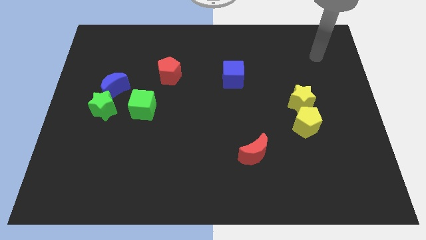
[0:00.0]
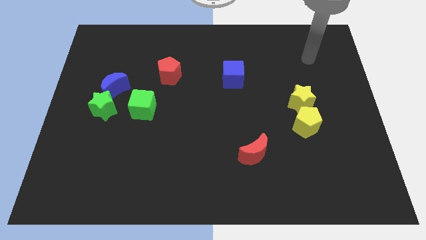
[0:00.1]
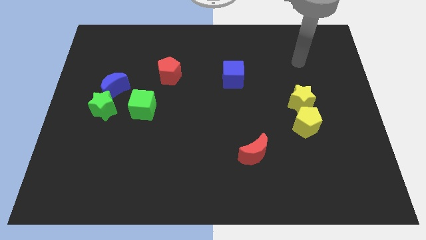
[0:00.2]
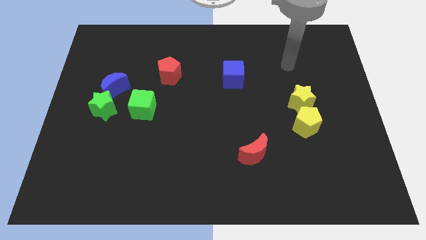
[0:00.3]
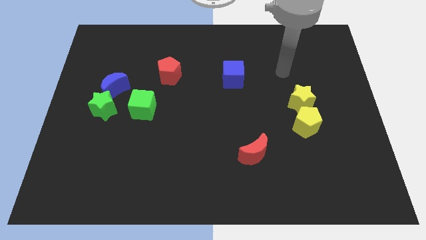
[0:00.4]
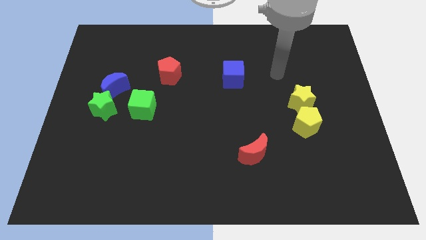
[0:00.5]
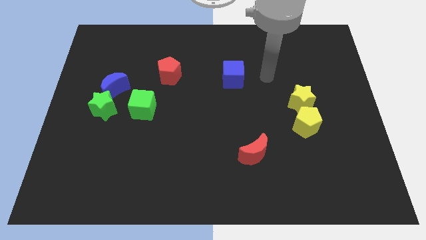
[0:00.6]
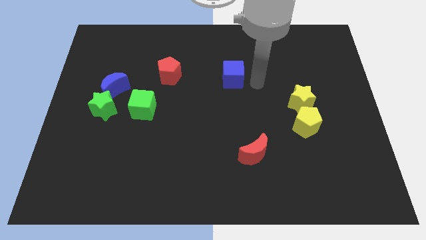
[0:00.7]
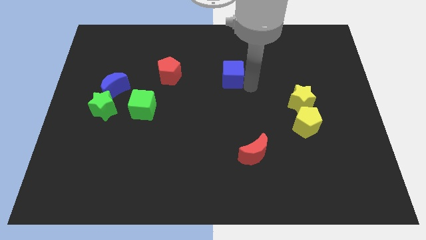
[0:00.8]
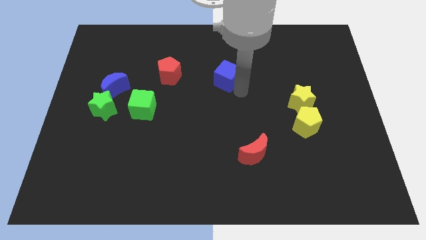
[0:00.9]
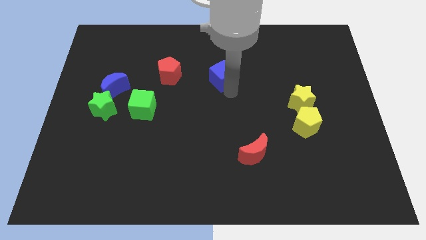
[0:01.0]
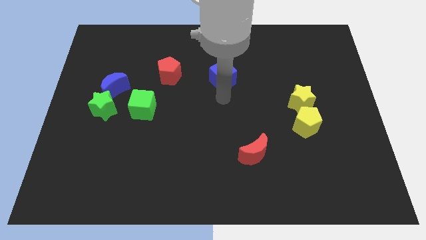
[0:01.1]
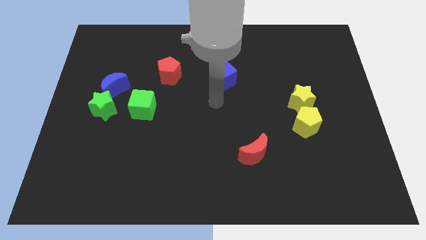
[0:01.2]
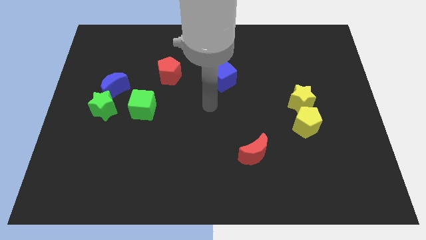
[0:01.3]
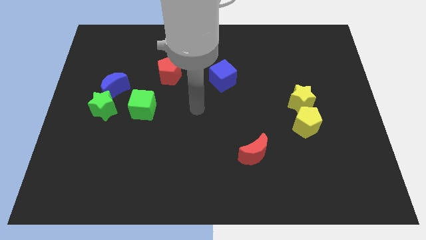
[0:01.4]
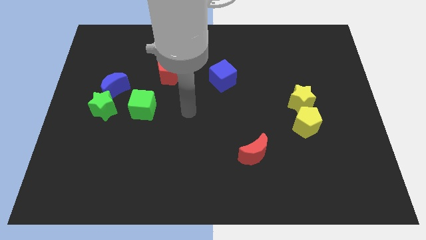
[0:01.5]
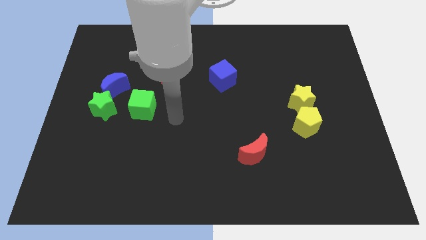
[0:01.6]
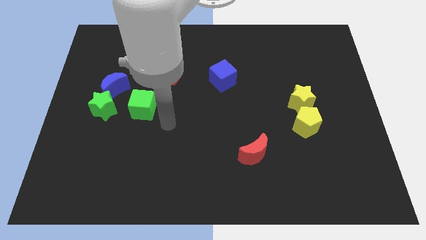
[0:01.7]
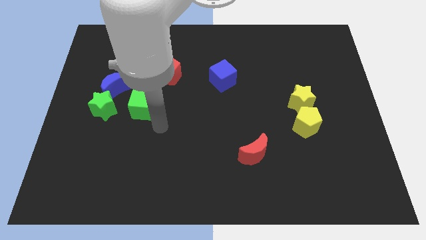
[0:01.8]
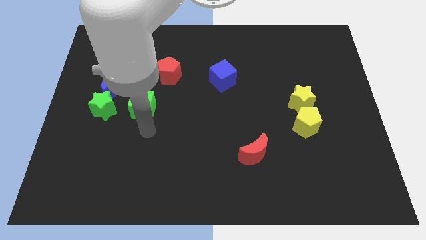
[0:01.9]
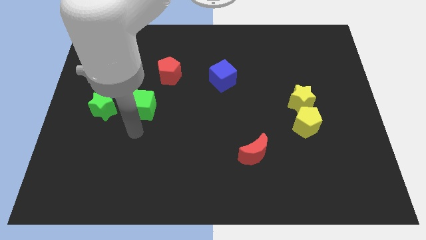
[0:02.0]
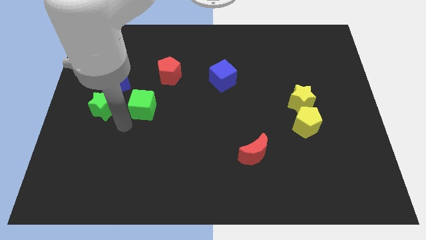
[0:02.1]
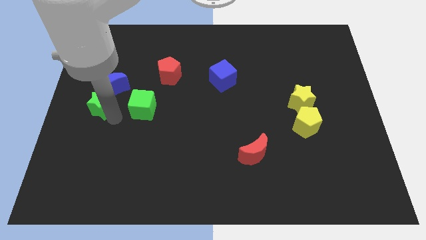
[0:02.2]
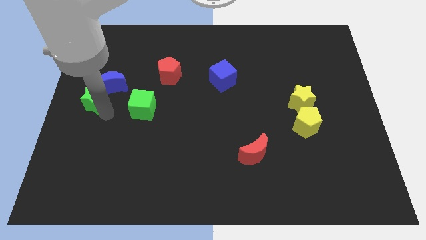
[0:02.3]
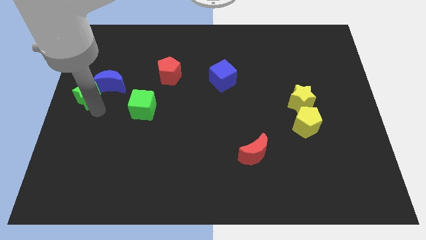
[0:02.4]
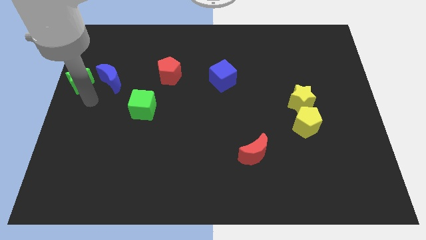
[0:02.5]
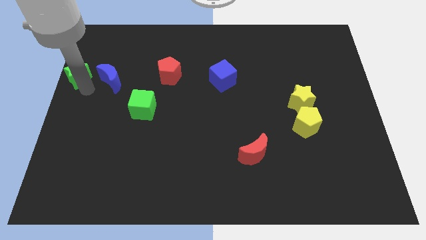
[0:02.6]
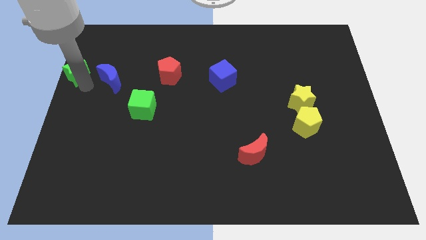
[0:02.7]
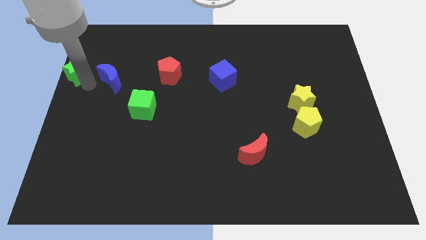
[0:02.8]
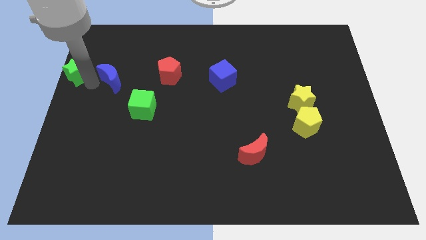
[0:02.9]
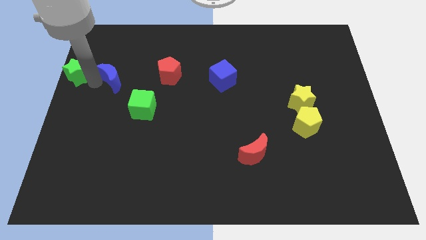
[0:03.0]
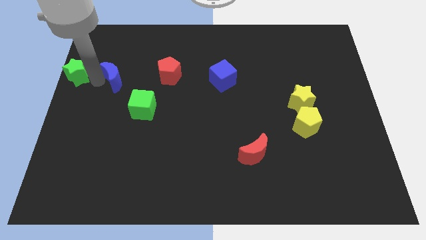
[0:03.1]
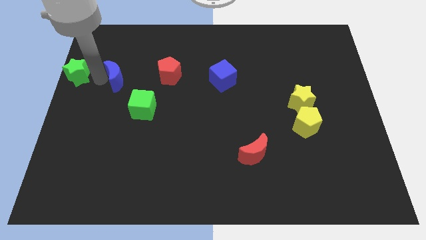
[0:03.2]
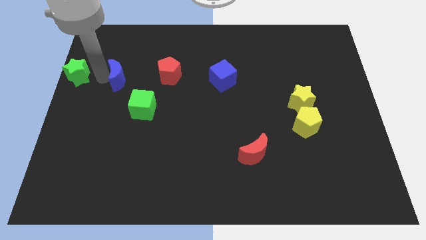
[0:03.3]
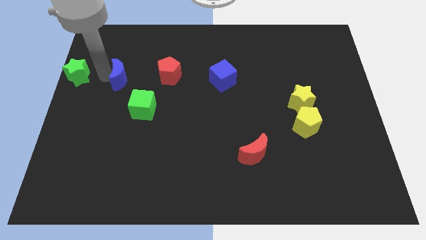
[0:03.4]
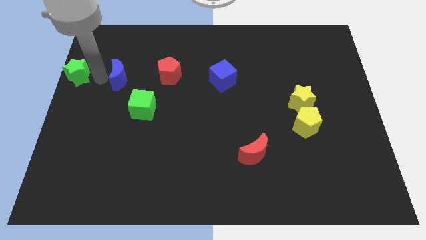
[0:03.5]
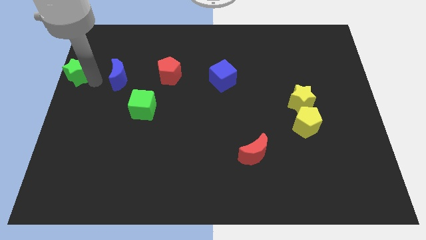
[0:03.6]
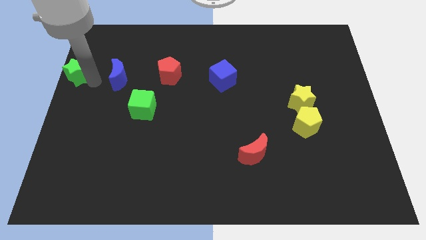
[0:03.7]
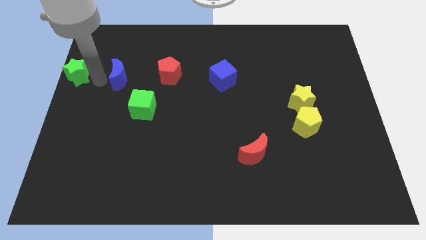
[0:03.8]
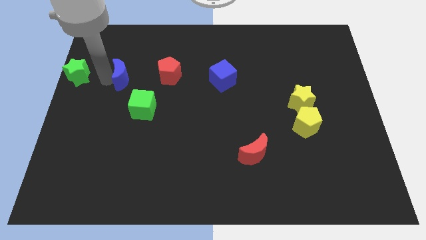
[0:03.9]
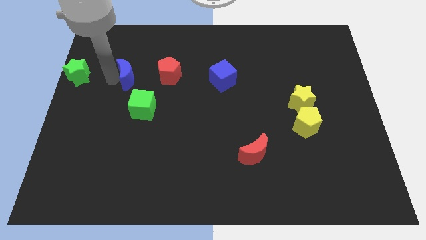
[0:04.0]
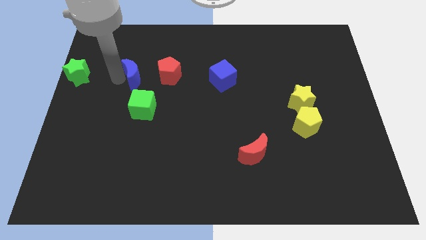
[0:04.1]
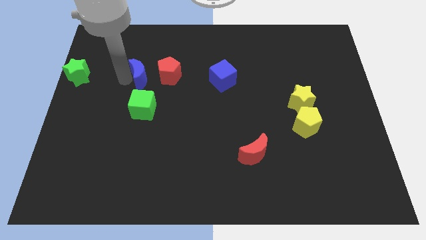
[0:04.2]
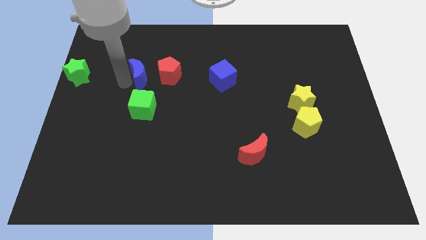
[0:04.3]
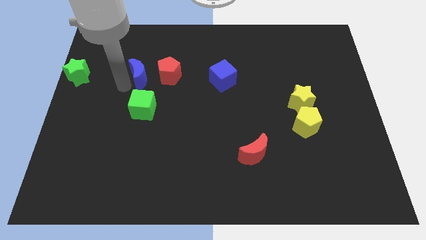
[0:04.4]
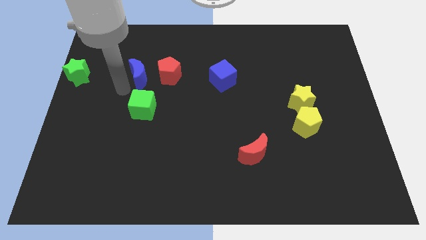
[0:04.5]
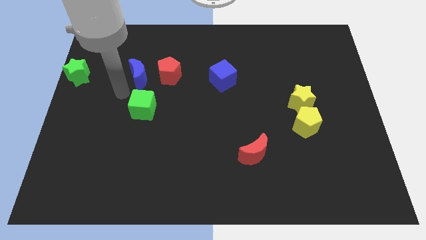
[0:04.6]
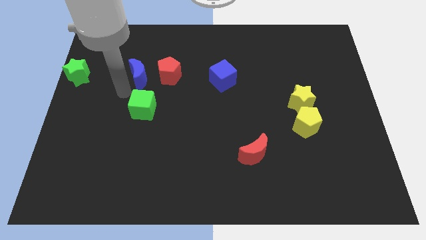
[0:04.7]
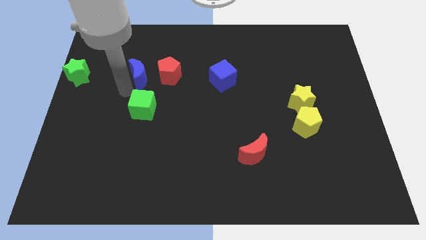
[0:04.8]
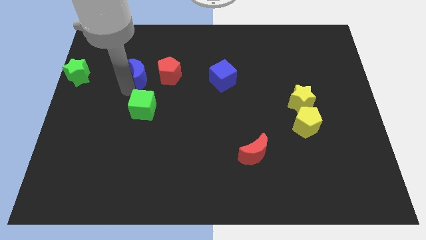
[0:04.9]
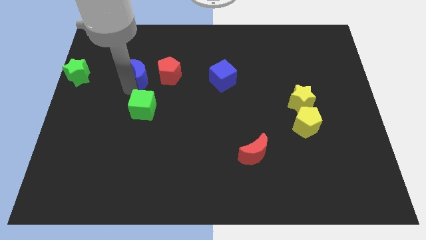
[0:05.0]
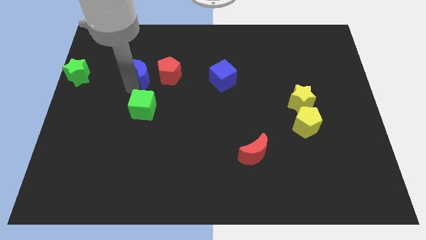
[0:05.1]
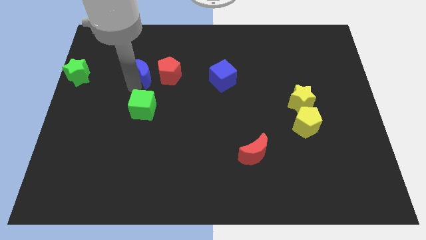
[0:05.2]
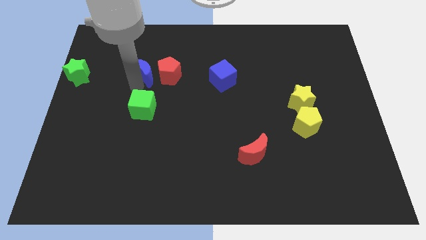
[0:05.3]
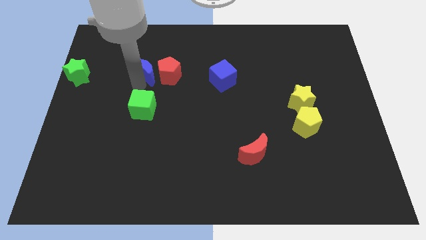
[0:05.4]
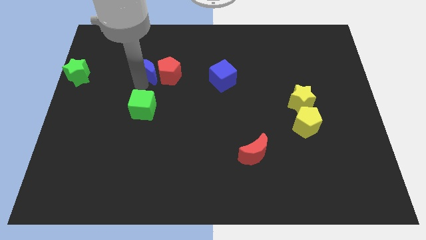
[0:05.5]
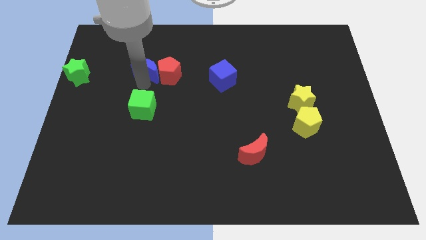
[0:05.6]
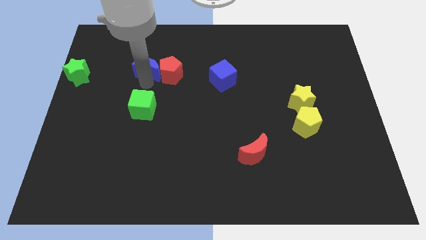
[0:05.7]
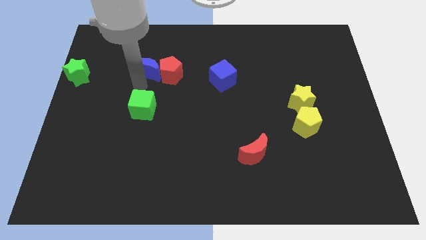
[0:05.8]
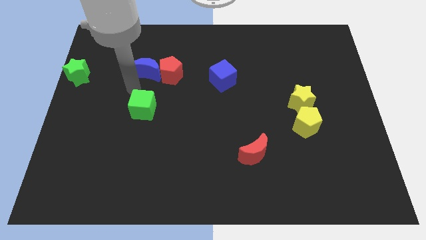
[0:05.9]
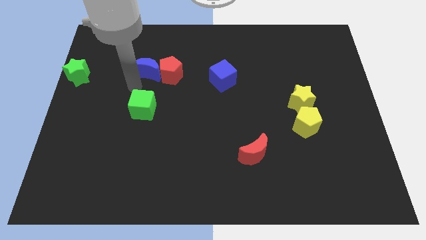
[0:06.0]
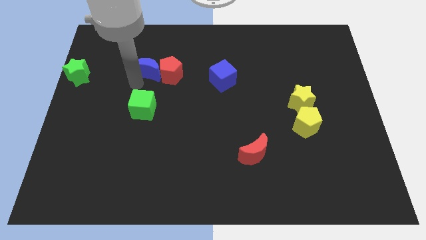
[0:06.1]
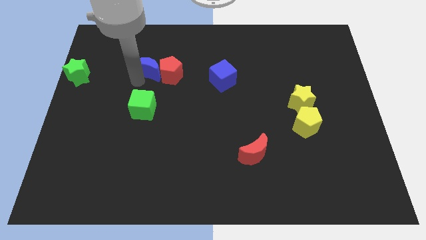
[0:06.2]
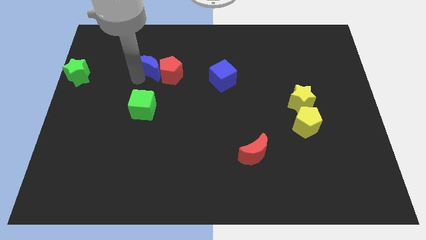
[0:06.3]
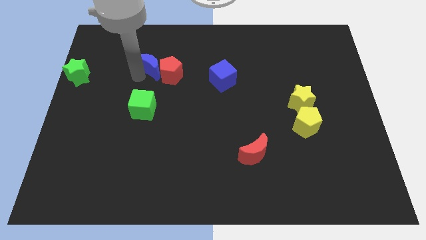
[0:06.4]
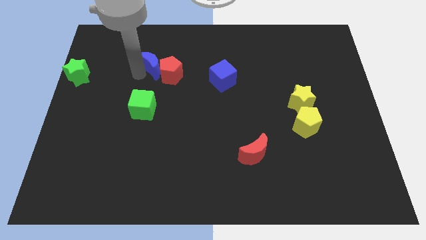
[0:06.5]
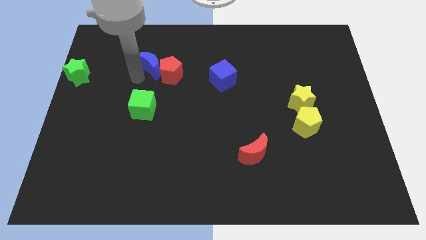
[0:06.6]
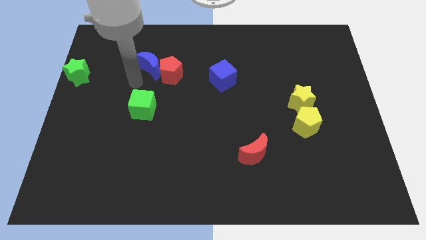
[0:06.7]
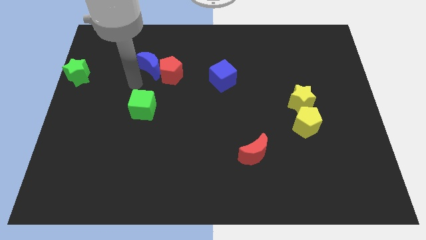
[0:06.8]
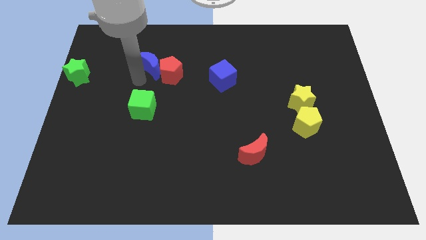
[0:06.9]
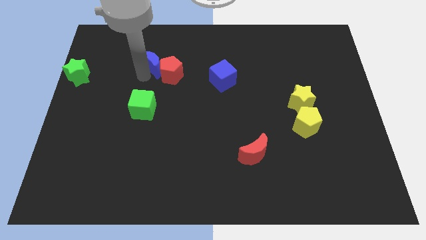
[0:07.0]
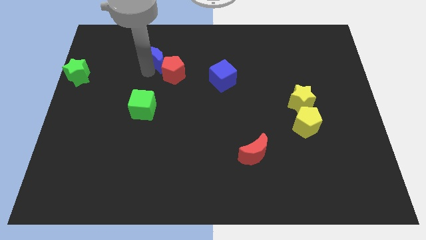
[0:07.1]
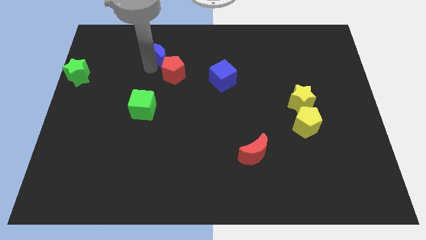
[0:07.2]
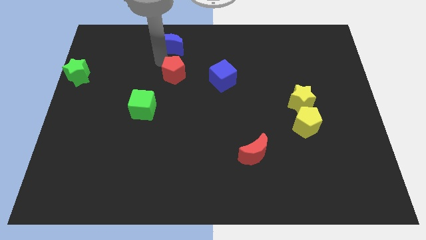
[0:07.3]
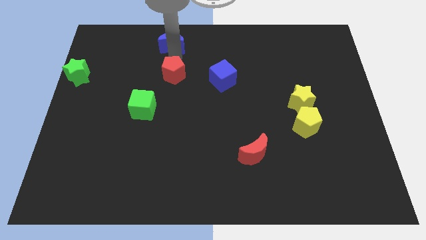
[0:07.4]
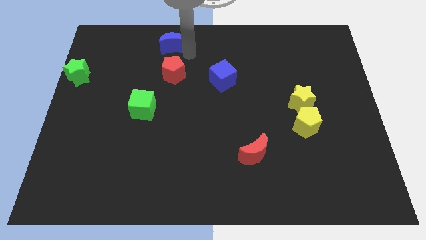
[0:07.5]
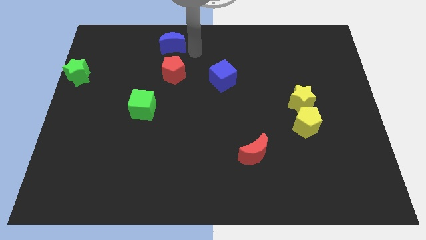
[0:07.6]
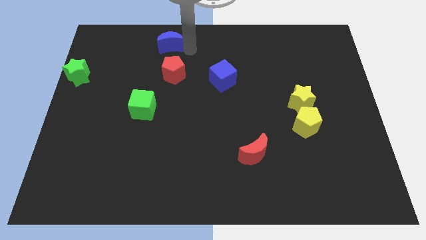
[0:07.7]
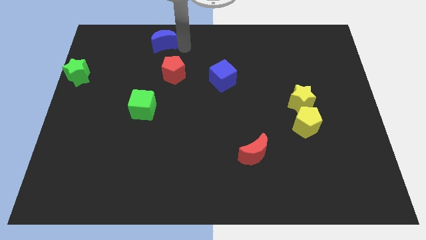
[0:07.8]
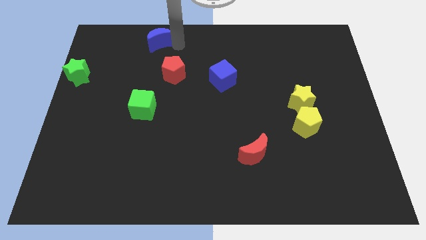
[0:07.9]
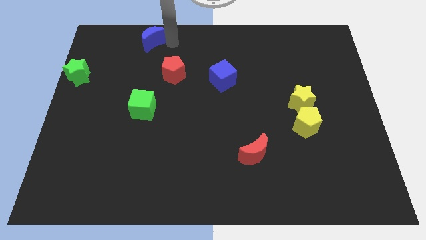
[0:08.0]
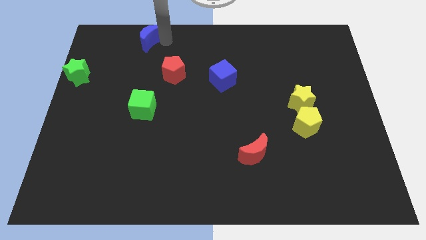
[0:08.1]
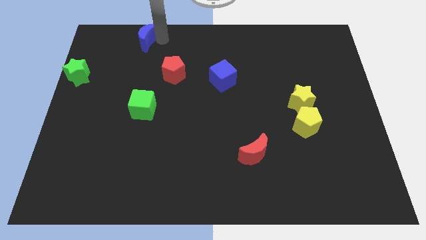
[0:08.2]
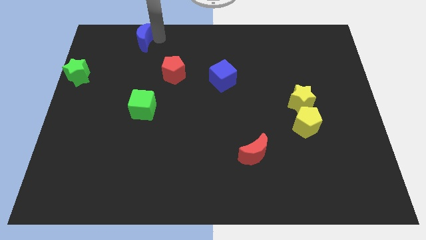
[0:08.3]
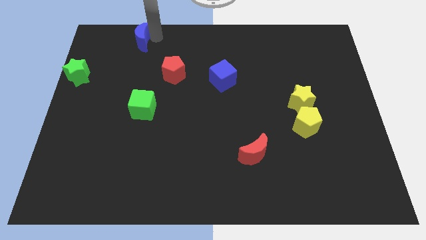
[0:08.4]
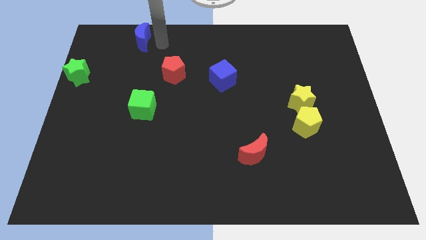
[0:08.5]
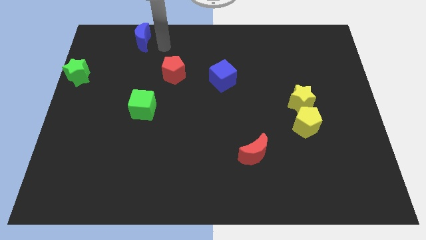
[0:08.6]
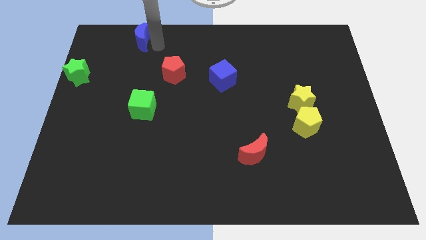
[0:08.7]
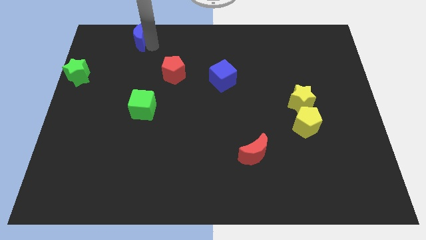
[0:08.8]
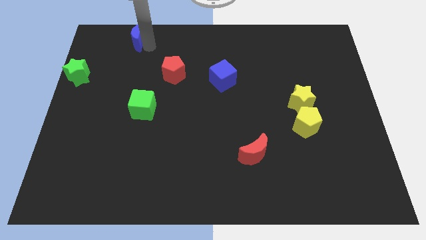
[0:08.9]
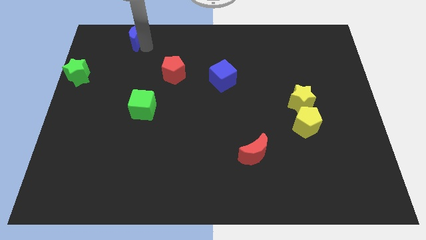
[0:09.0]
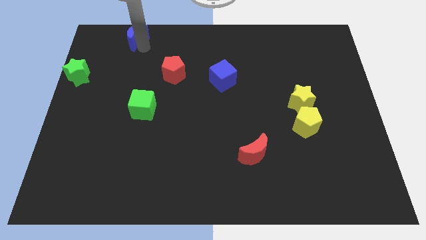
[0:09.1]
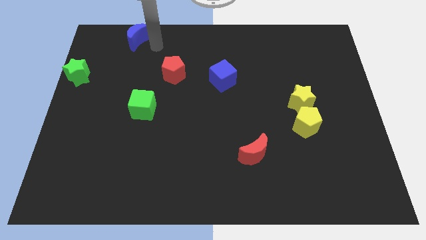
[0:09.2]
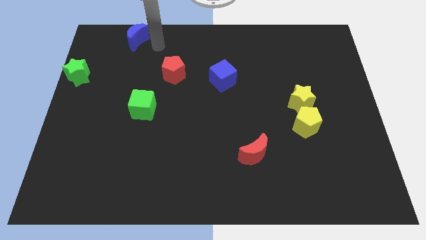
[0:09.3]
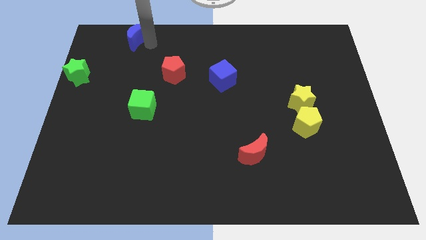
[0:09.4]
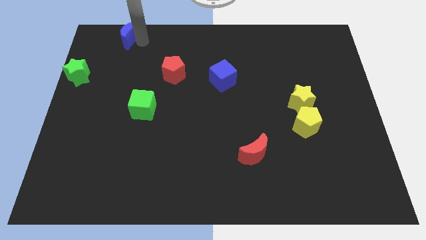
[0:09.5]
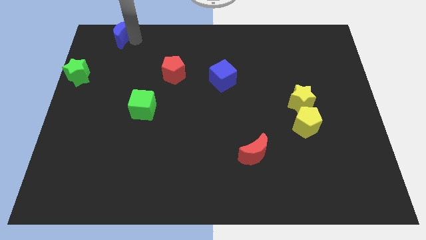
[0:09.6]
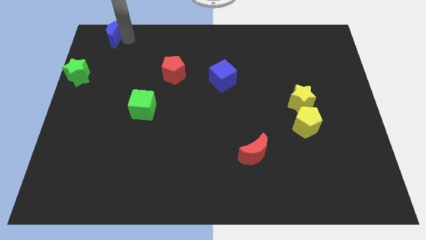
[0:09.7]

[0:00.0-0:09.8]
push the blue moon to the top left corner
